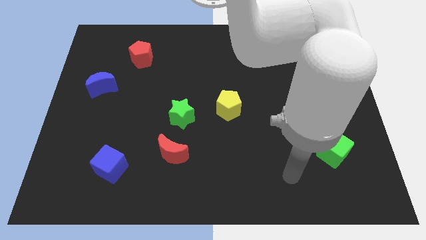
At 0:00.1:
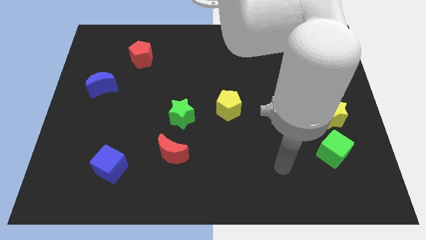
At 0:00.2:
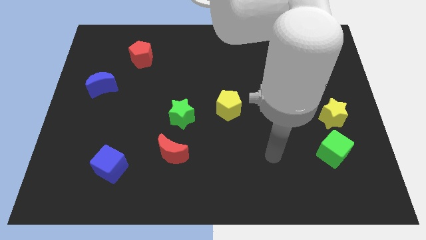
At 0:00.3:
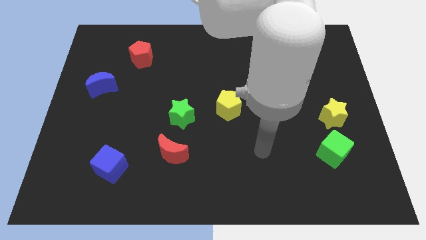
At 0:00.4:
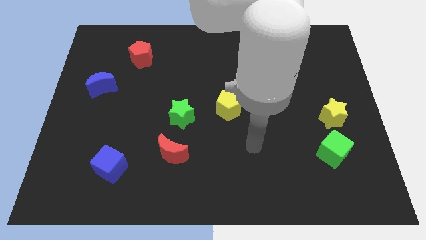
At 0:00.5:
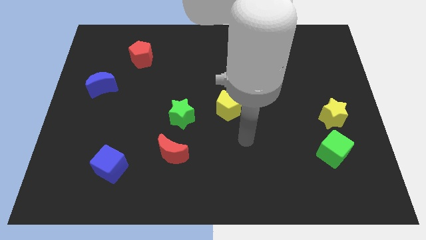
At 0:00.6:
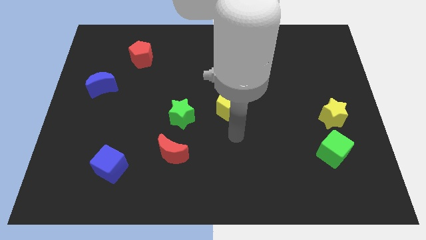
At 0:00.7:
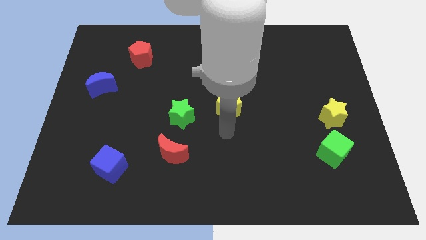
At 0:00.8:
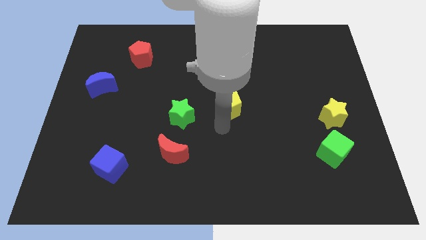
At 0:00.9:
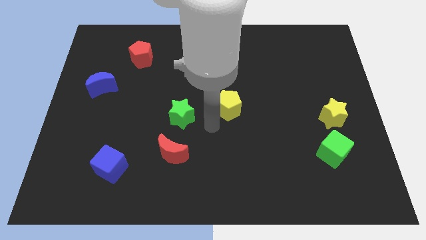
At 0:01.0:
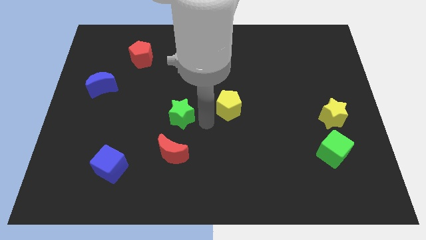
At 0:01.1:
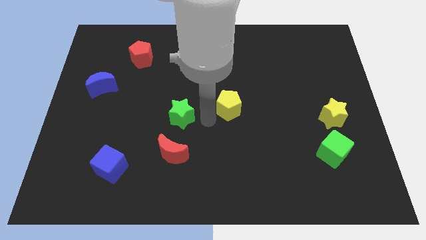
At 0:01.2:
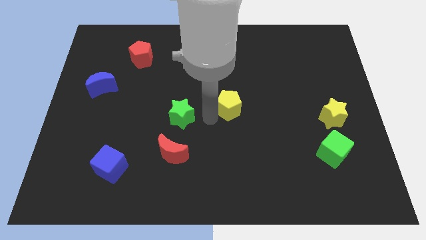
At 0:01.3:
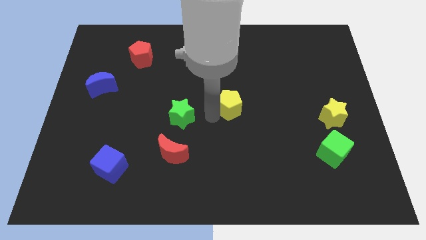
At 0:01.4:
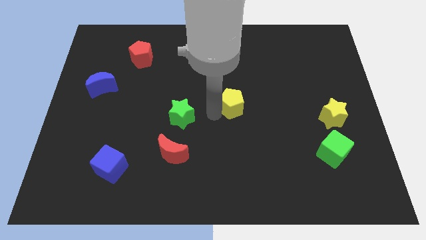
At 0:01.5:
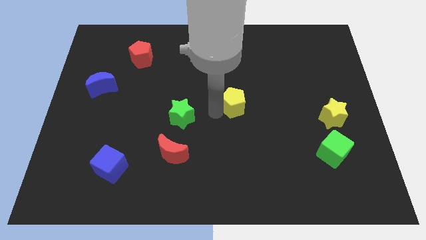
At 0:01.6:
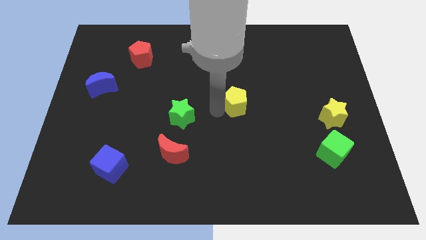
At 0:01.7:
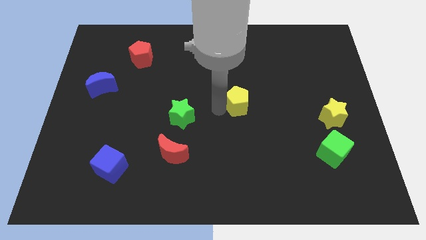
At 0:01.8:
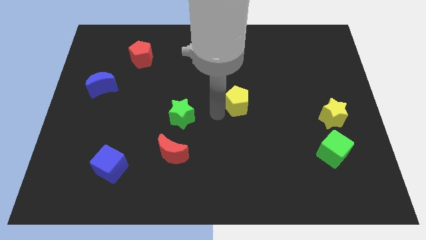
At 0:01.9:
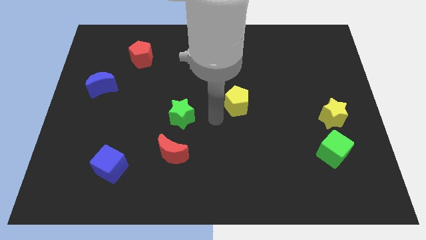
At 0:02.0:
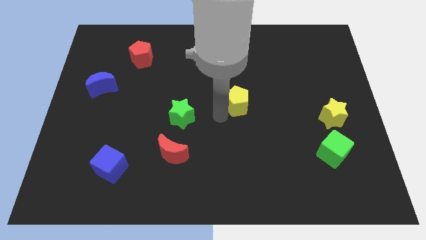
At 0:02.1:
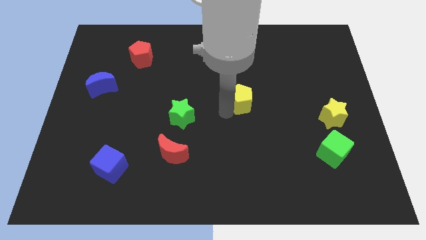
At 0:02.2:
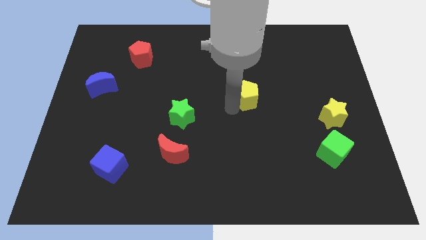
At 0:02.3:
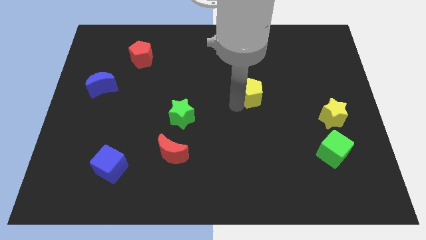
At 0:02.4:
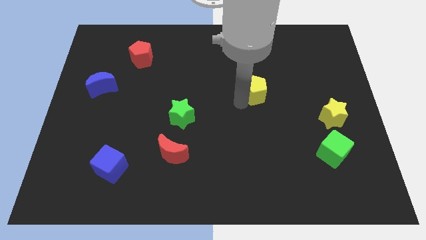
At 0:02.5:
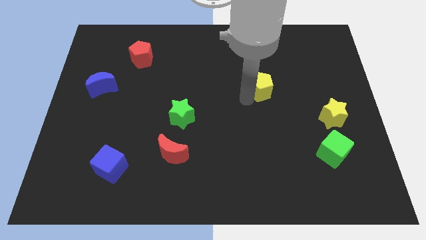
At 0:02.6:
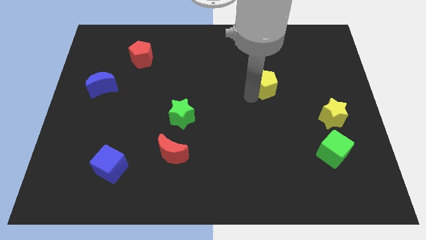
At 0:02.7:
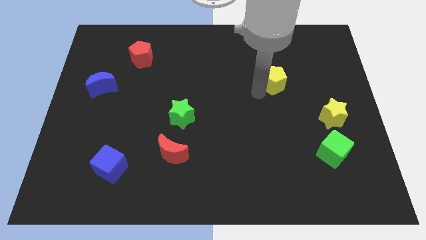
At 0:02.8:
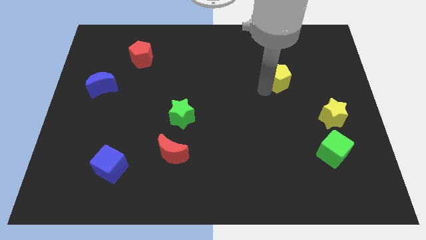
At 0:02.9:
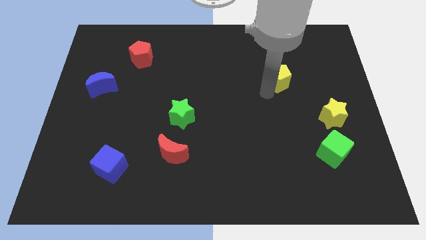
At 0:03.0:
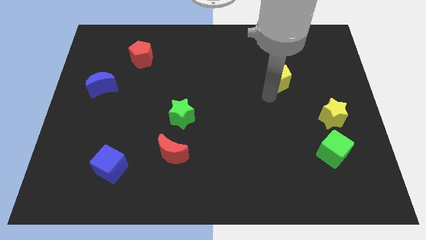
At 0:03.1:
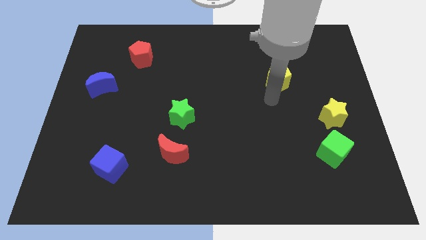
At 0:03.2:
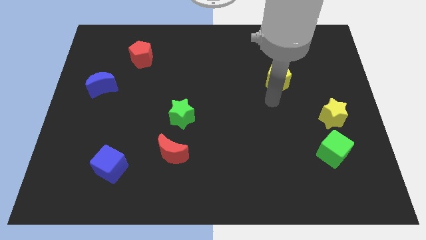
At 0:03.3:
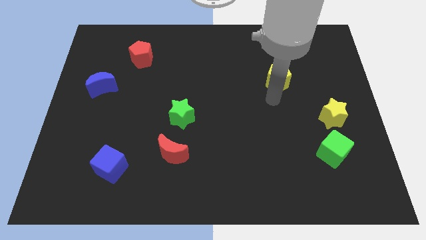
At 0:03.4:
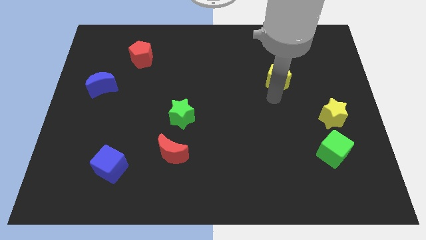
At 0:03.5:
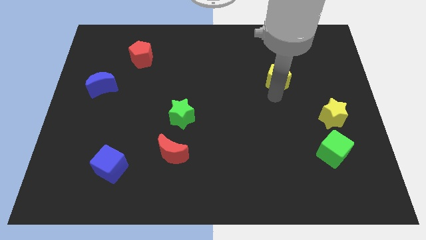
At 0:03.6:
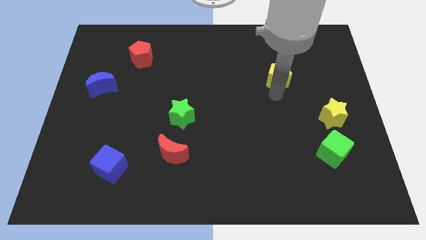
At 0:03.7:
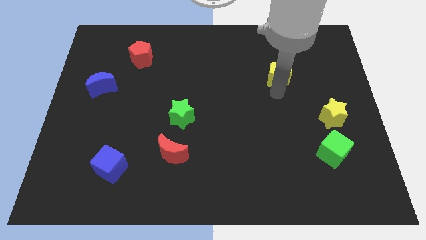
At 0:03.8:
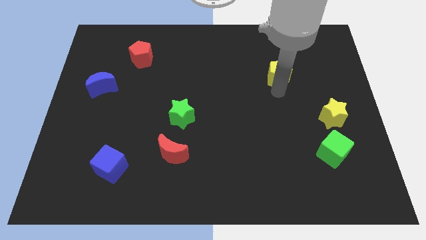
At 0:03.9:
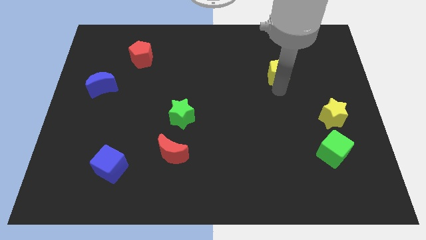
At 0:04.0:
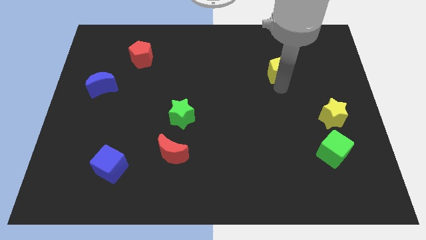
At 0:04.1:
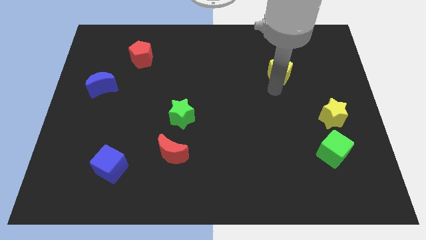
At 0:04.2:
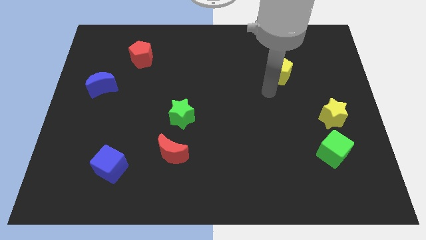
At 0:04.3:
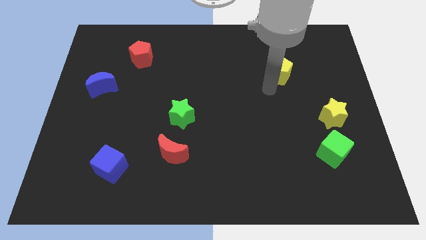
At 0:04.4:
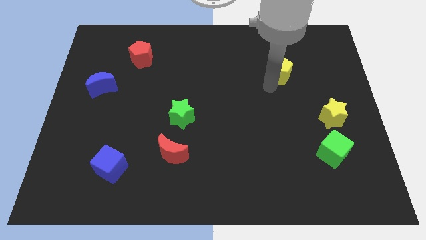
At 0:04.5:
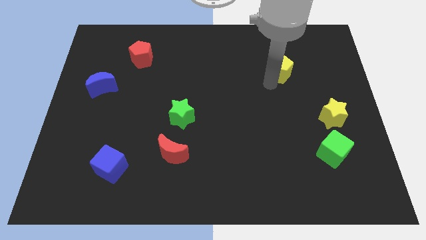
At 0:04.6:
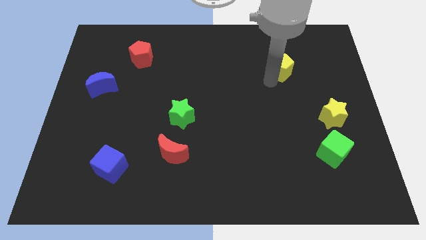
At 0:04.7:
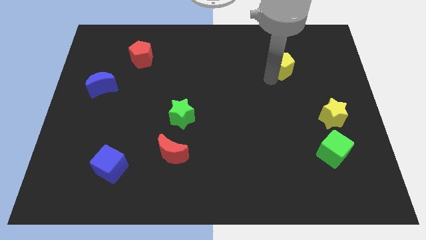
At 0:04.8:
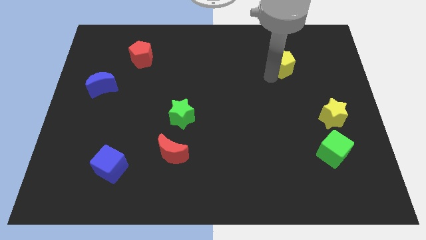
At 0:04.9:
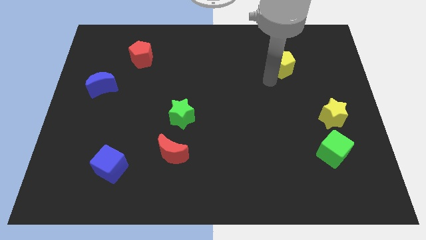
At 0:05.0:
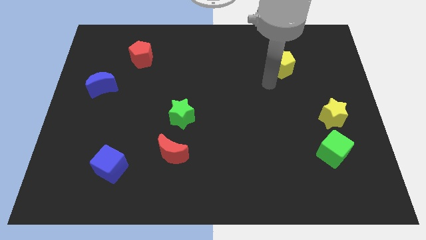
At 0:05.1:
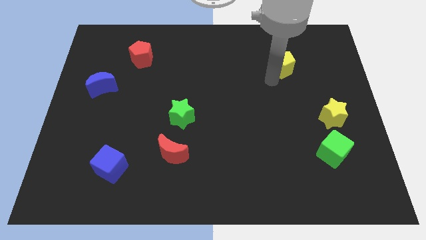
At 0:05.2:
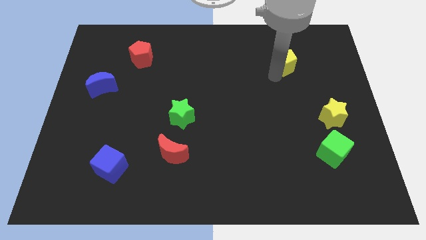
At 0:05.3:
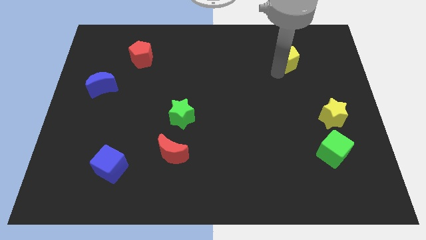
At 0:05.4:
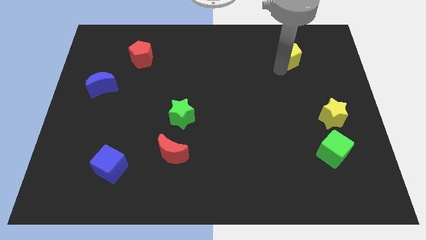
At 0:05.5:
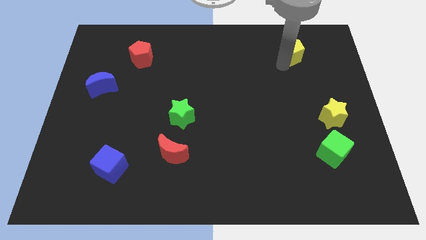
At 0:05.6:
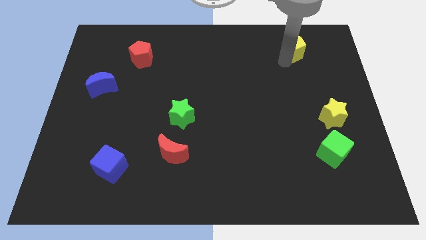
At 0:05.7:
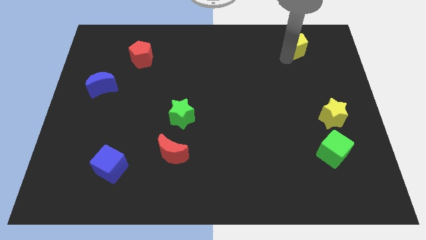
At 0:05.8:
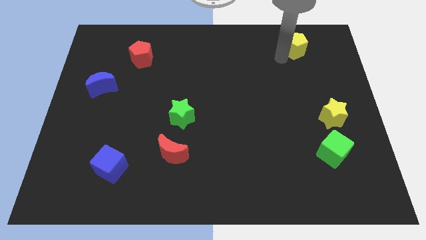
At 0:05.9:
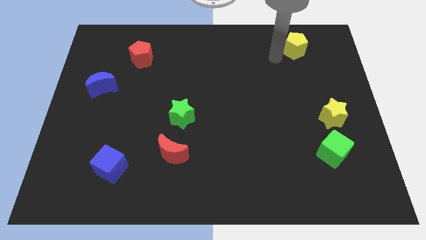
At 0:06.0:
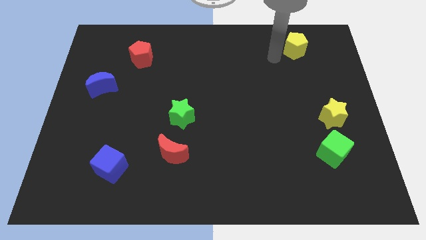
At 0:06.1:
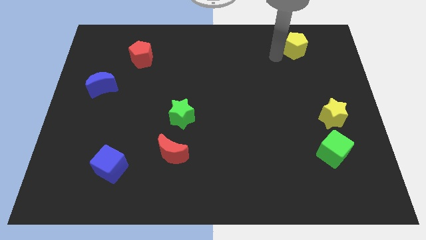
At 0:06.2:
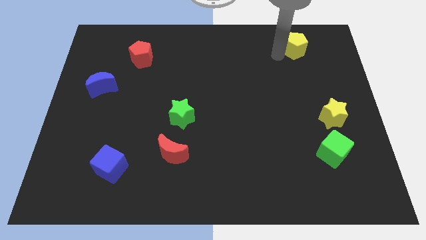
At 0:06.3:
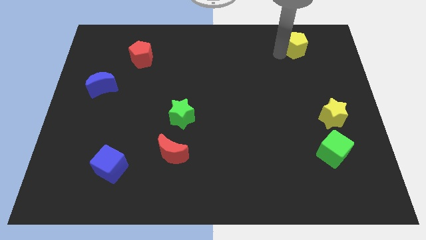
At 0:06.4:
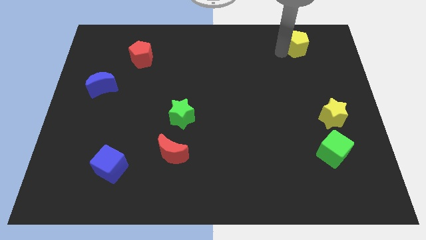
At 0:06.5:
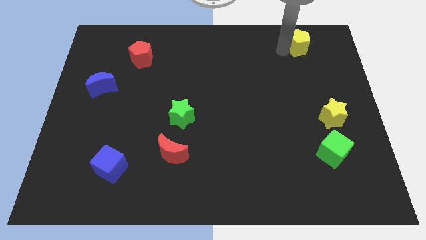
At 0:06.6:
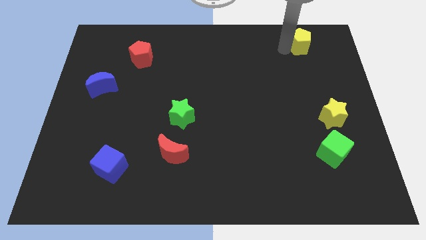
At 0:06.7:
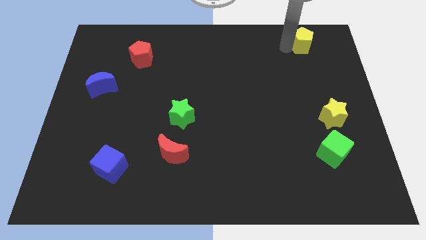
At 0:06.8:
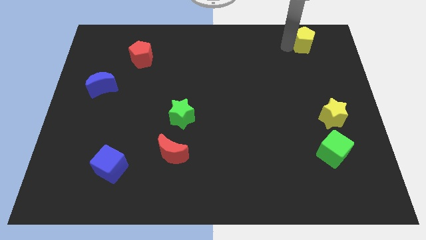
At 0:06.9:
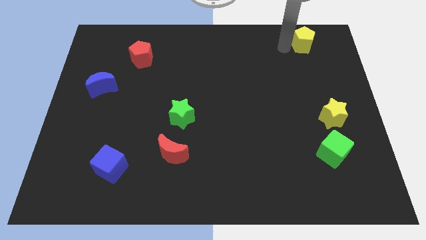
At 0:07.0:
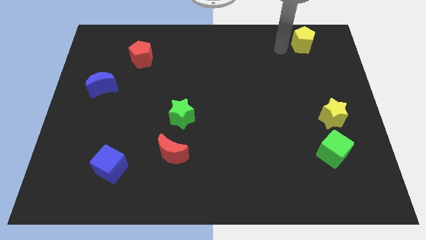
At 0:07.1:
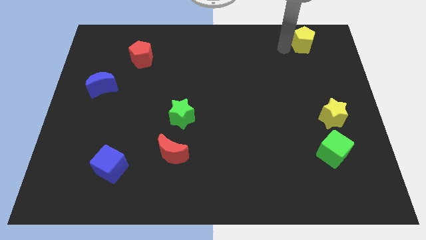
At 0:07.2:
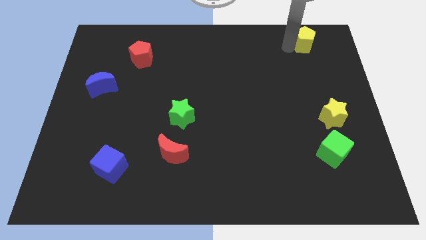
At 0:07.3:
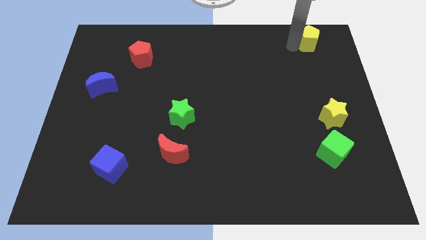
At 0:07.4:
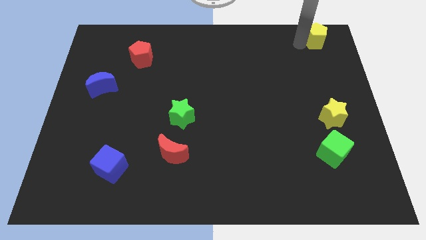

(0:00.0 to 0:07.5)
slide the yellow pentagon to the top right of the board

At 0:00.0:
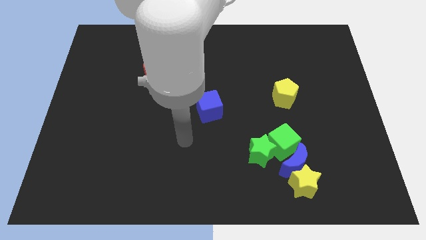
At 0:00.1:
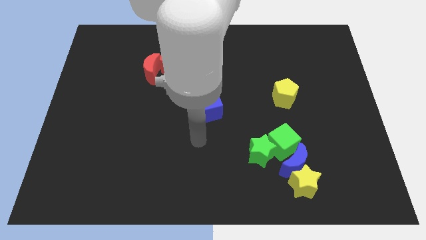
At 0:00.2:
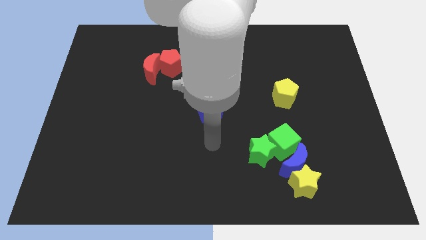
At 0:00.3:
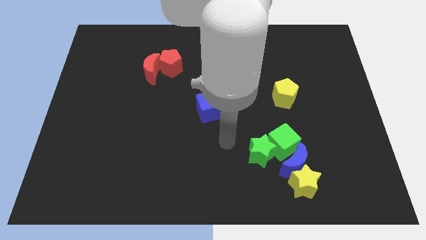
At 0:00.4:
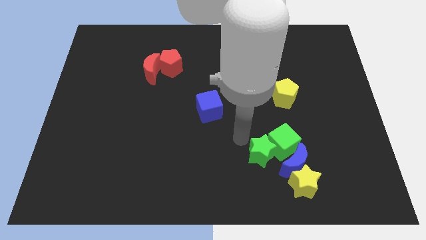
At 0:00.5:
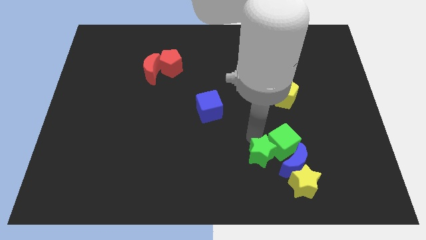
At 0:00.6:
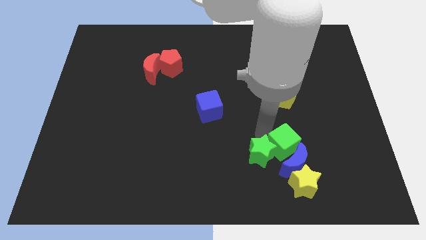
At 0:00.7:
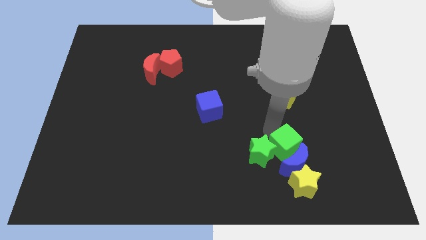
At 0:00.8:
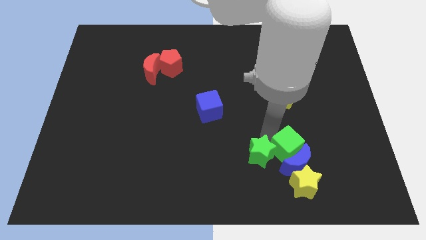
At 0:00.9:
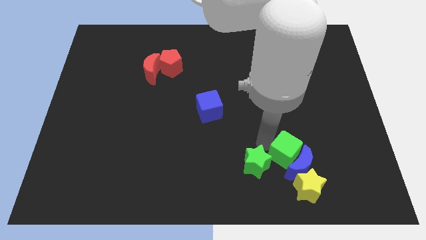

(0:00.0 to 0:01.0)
slide the green star to the bottom side
